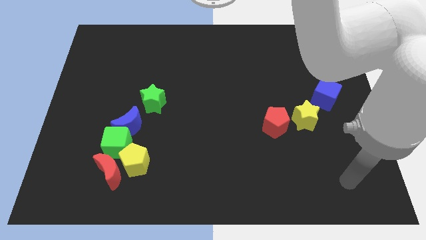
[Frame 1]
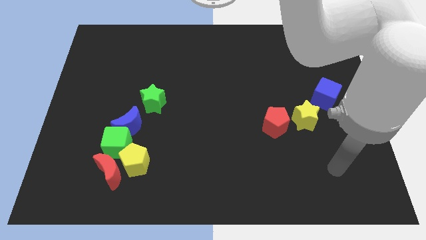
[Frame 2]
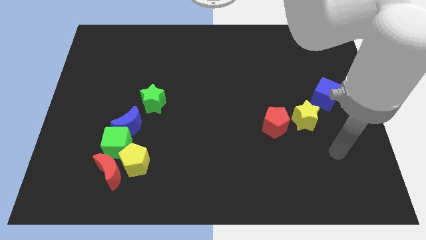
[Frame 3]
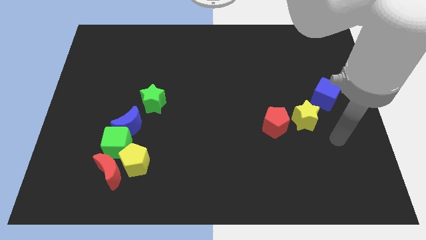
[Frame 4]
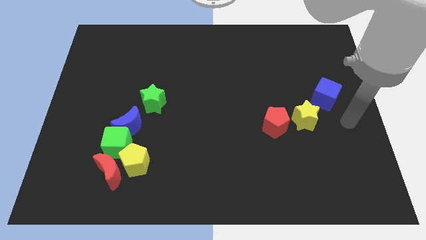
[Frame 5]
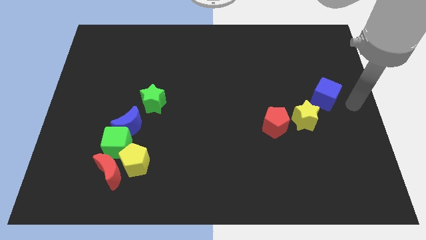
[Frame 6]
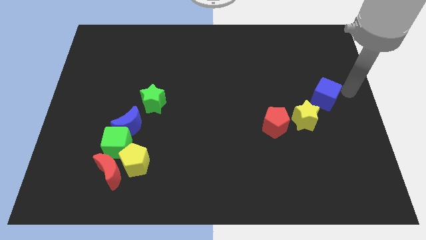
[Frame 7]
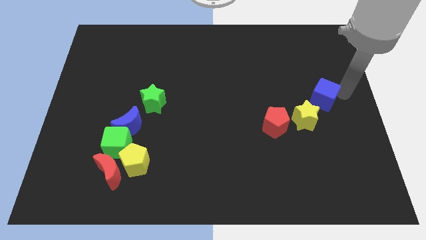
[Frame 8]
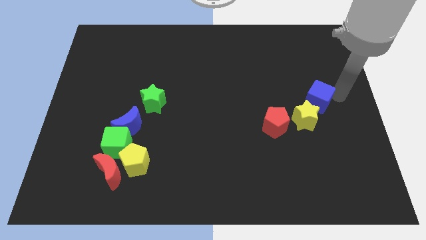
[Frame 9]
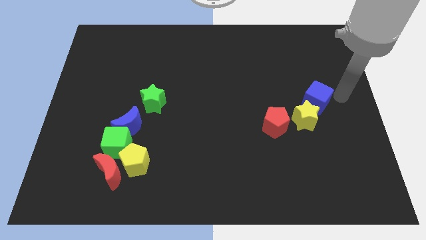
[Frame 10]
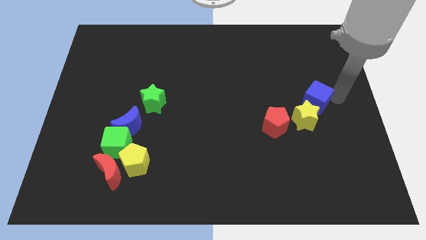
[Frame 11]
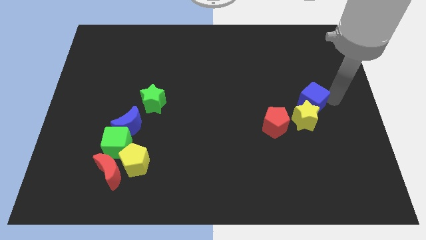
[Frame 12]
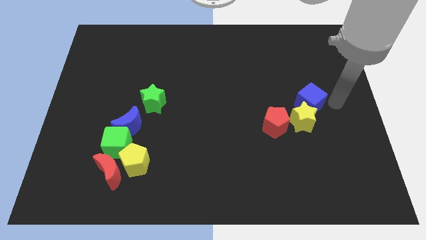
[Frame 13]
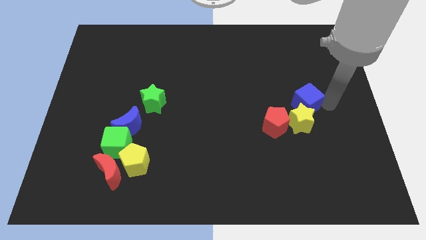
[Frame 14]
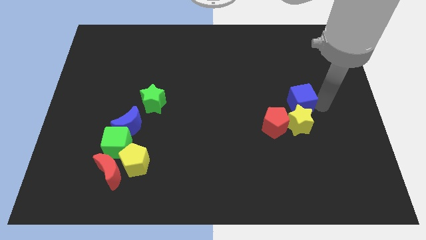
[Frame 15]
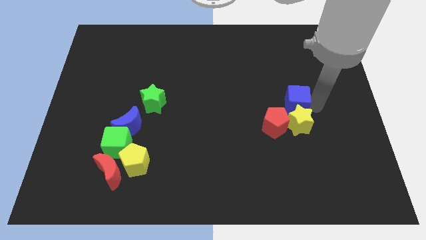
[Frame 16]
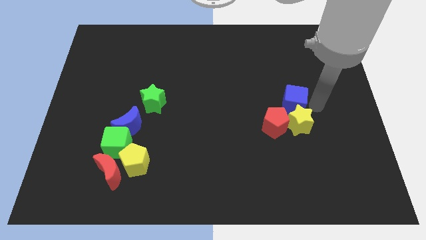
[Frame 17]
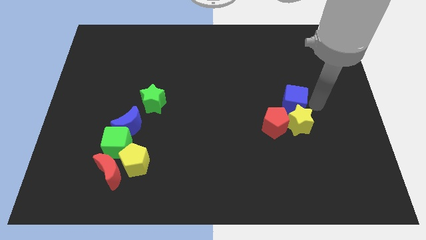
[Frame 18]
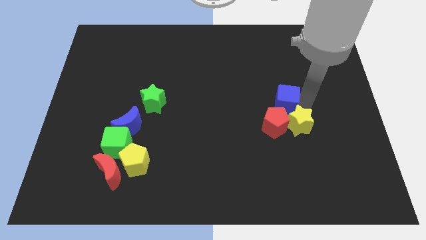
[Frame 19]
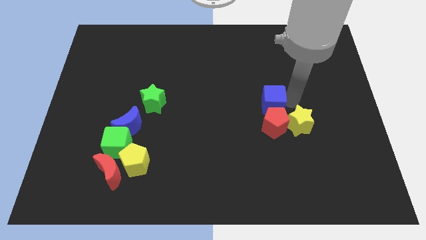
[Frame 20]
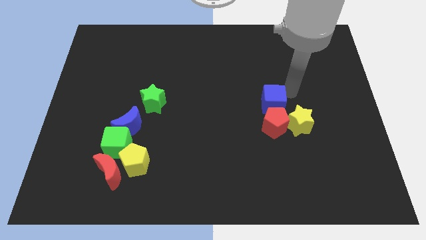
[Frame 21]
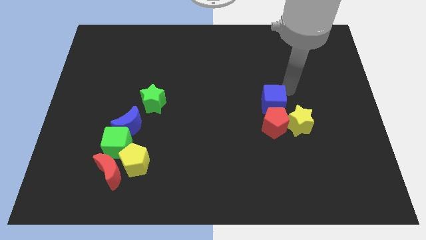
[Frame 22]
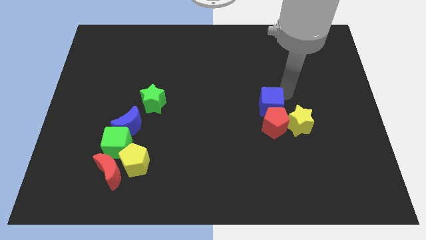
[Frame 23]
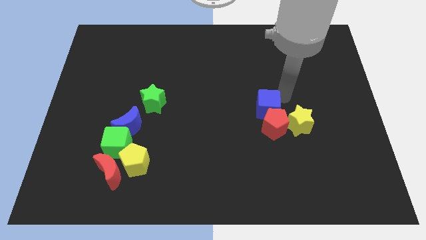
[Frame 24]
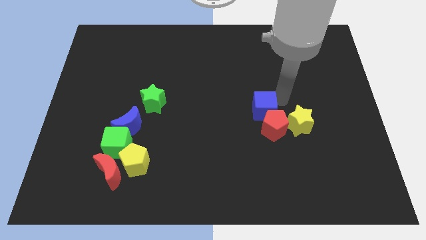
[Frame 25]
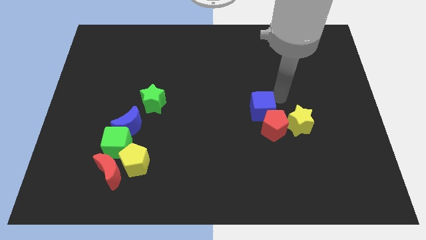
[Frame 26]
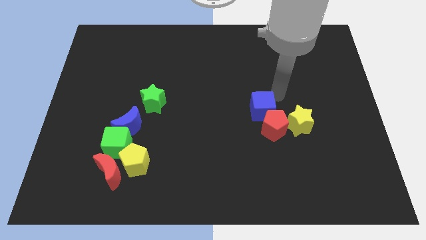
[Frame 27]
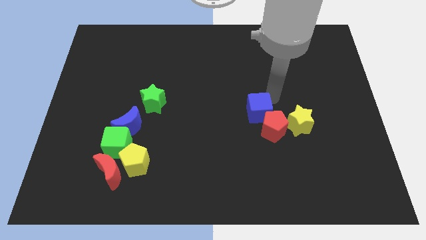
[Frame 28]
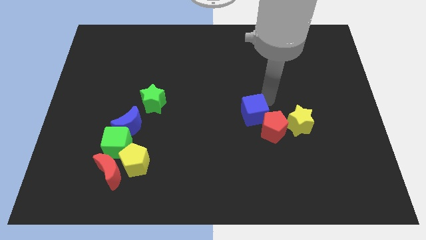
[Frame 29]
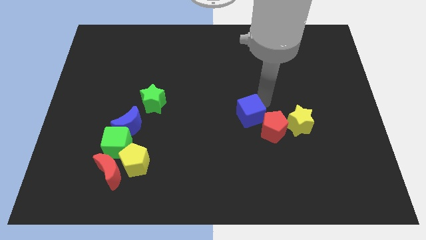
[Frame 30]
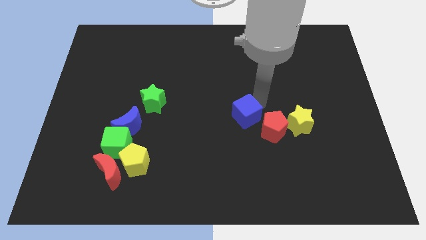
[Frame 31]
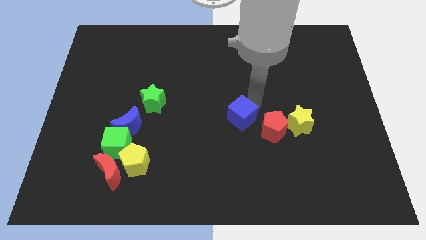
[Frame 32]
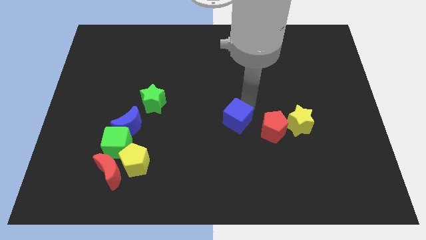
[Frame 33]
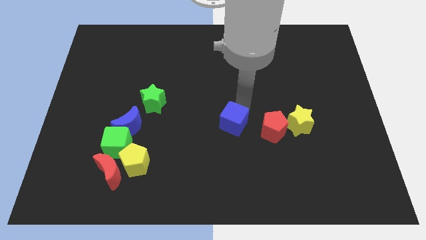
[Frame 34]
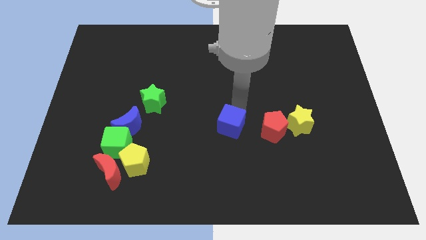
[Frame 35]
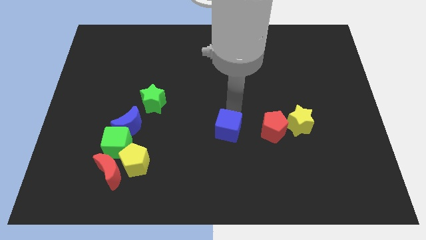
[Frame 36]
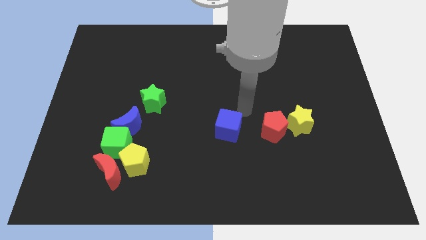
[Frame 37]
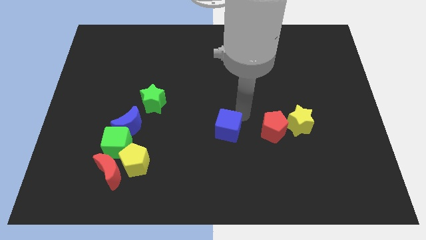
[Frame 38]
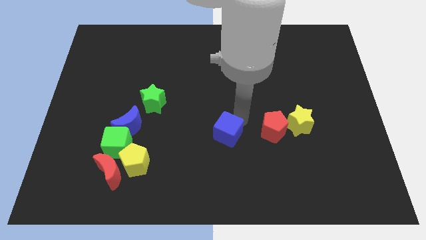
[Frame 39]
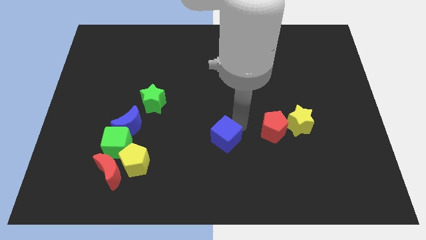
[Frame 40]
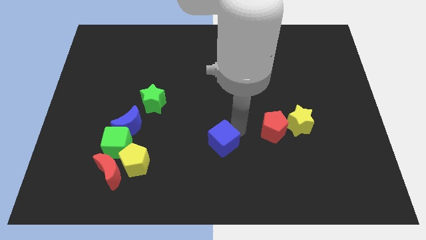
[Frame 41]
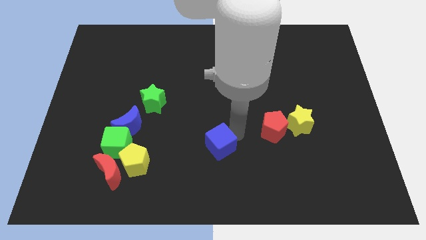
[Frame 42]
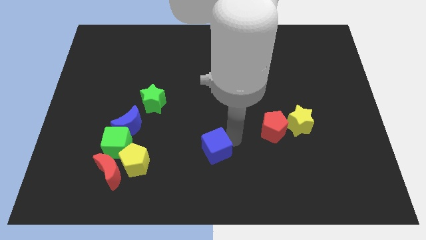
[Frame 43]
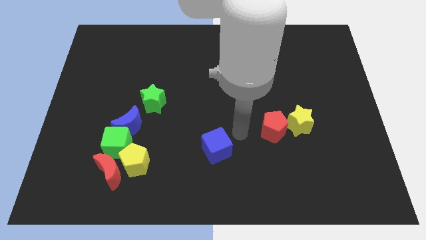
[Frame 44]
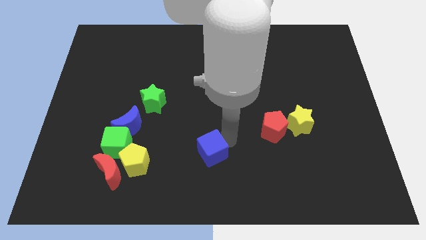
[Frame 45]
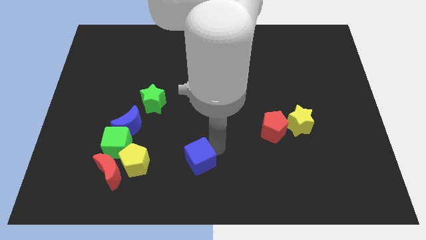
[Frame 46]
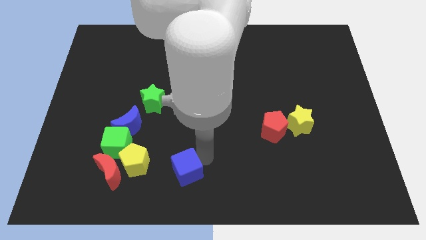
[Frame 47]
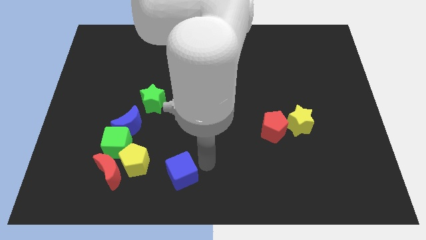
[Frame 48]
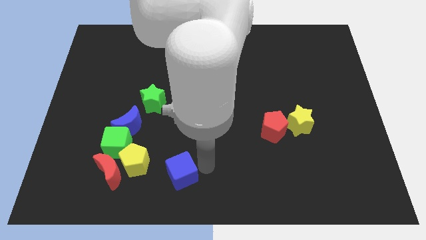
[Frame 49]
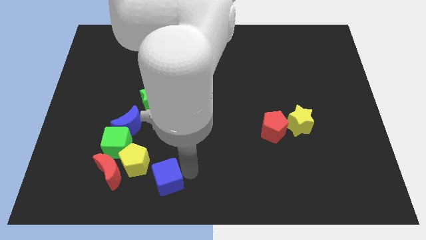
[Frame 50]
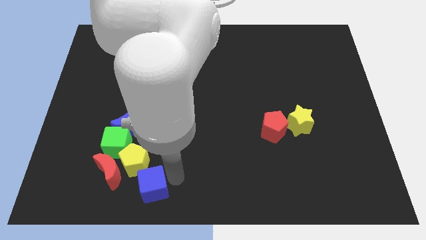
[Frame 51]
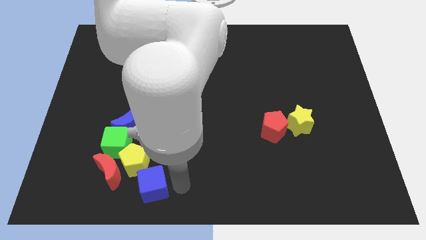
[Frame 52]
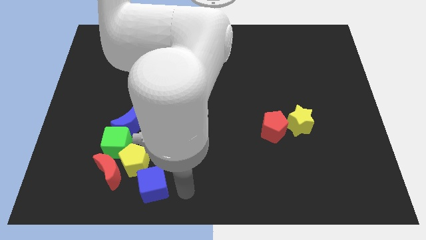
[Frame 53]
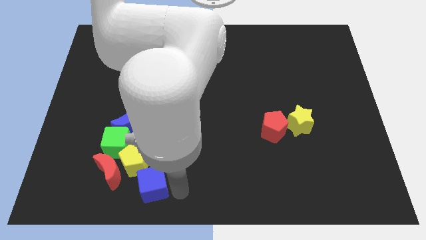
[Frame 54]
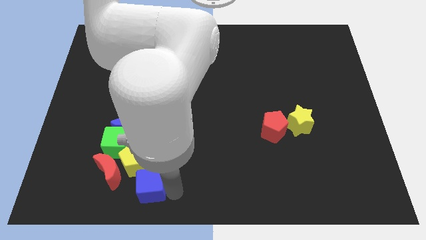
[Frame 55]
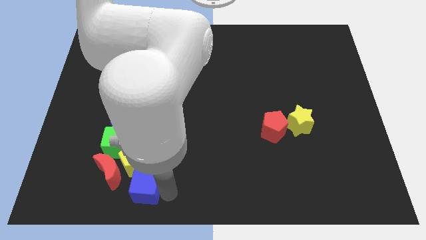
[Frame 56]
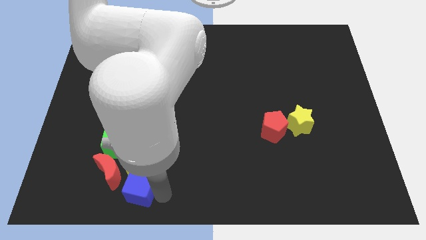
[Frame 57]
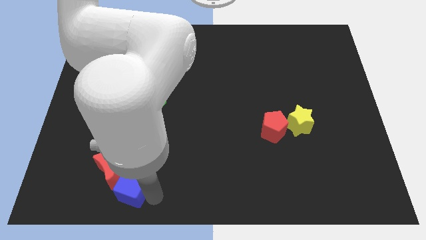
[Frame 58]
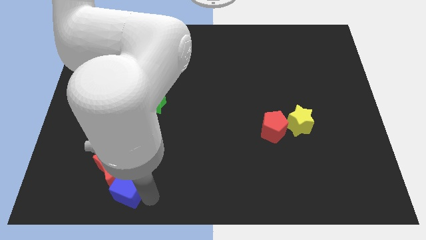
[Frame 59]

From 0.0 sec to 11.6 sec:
put the blue cube next to the red moon
